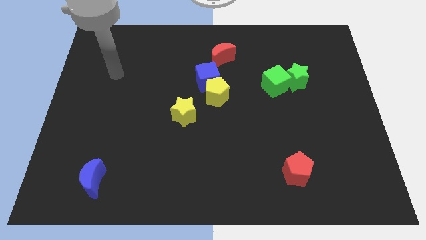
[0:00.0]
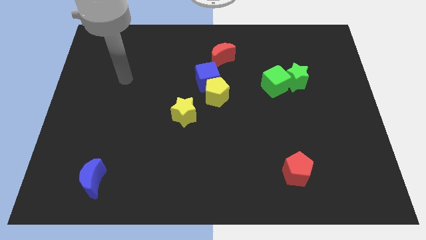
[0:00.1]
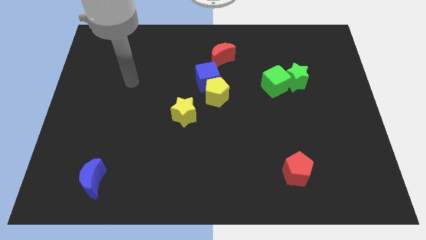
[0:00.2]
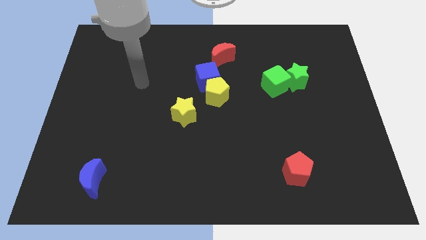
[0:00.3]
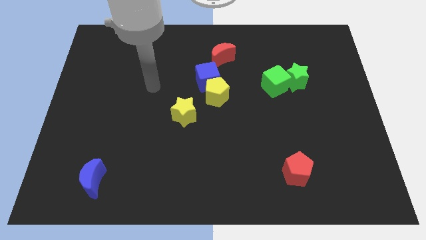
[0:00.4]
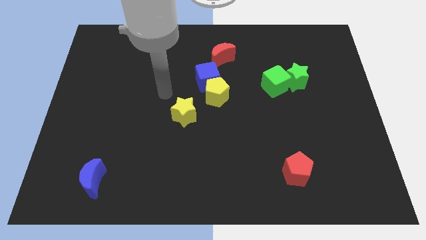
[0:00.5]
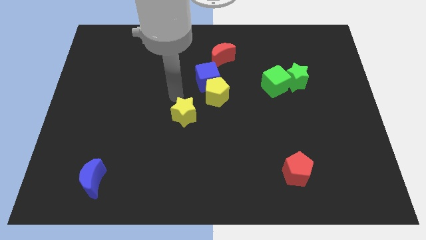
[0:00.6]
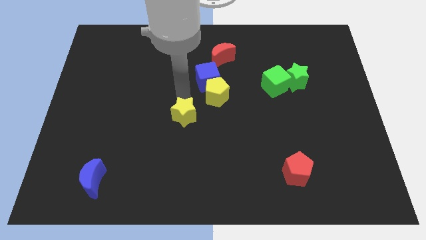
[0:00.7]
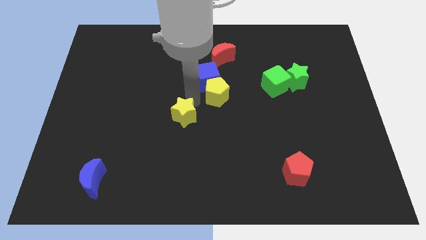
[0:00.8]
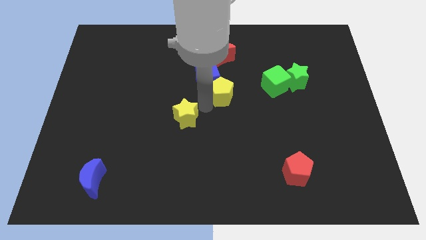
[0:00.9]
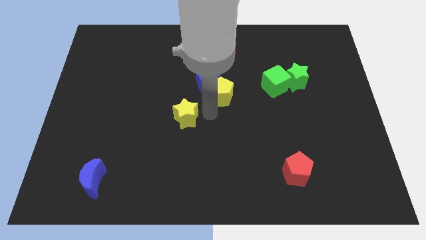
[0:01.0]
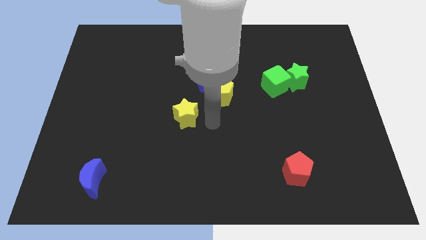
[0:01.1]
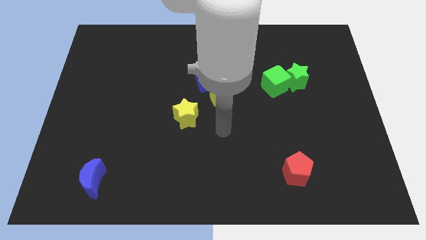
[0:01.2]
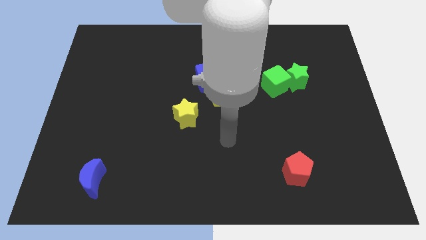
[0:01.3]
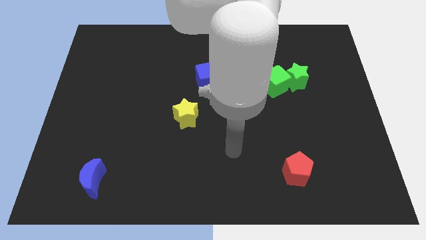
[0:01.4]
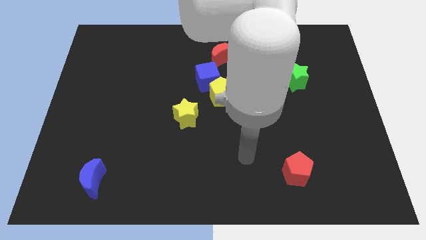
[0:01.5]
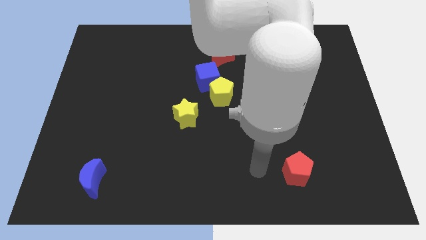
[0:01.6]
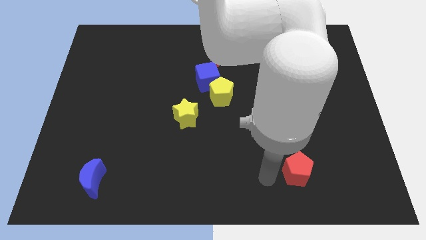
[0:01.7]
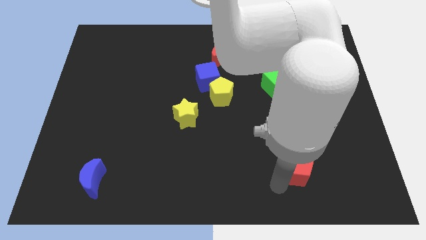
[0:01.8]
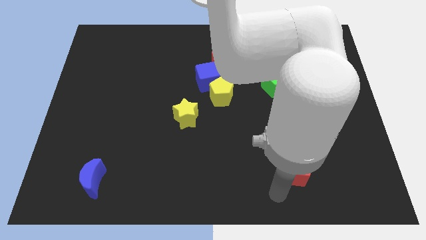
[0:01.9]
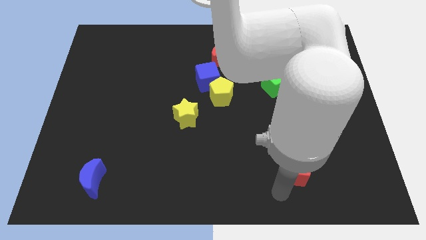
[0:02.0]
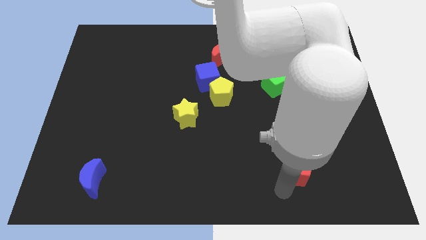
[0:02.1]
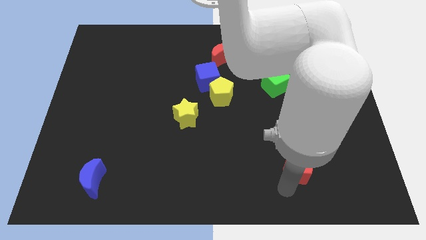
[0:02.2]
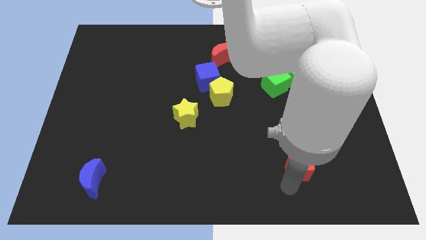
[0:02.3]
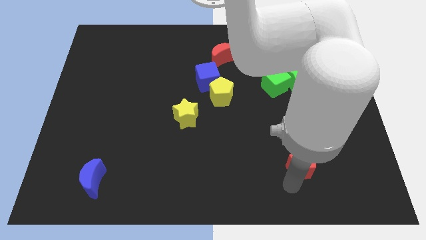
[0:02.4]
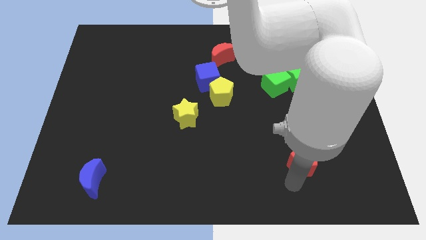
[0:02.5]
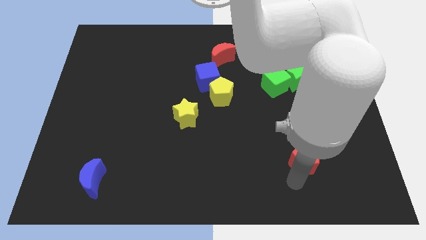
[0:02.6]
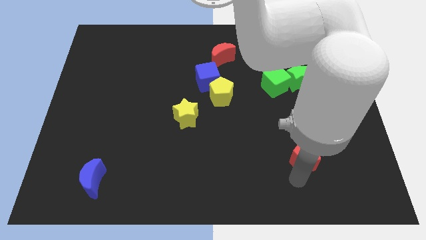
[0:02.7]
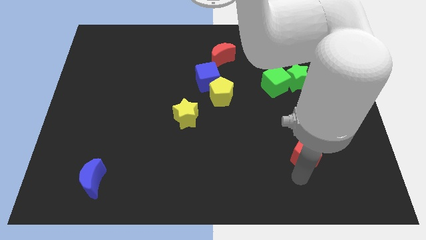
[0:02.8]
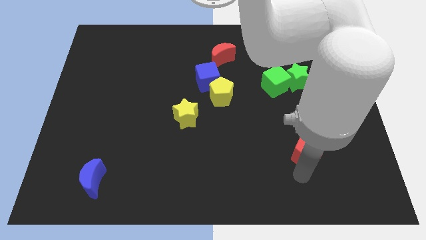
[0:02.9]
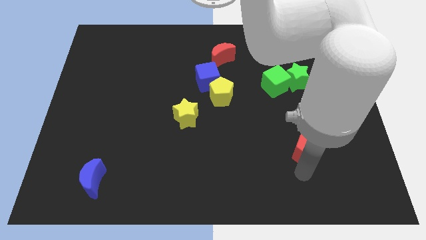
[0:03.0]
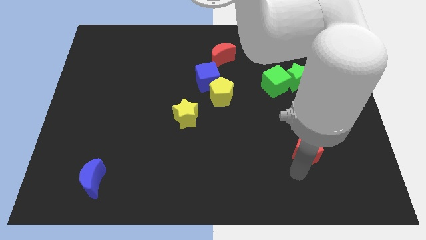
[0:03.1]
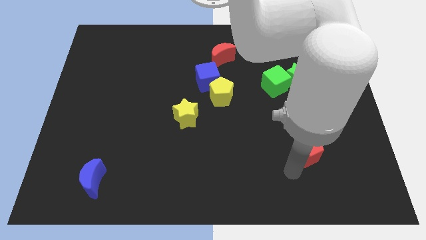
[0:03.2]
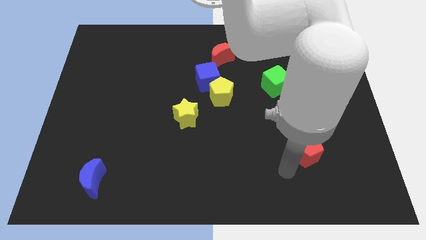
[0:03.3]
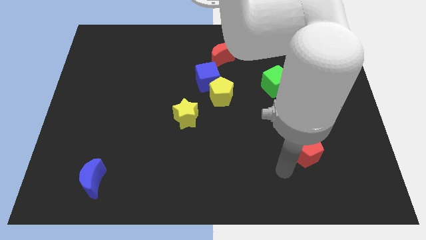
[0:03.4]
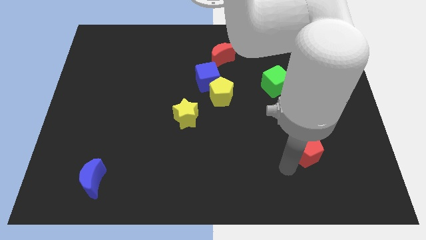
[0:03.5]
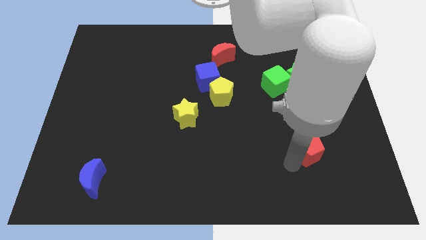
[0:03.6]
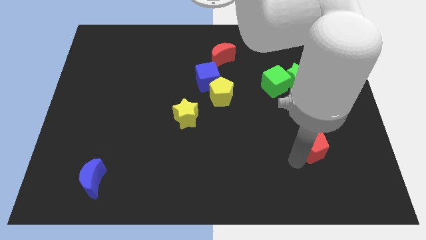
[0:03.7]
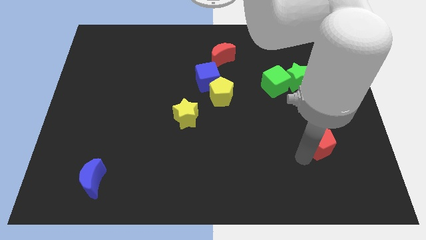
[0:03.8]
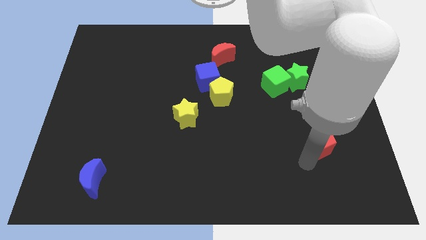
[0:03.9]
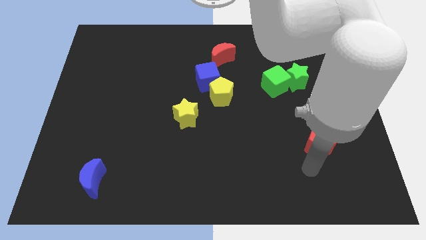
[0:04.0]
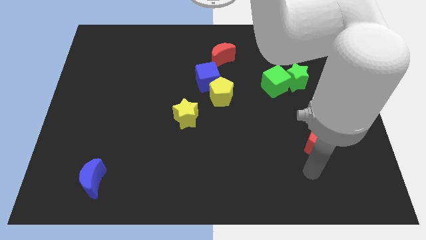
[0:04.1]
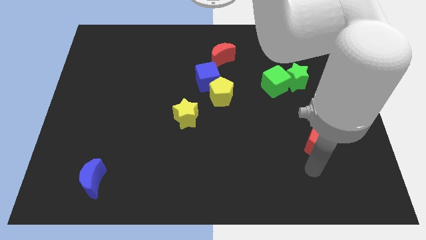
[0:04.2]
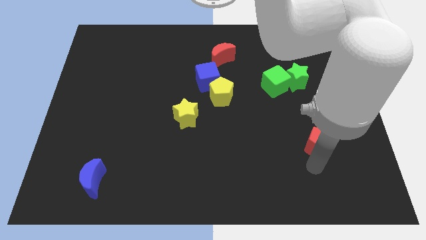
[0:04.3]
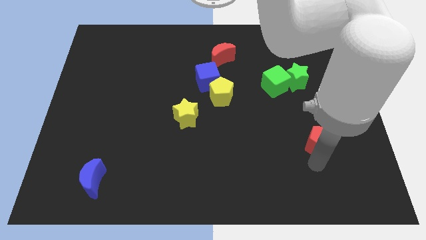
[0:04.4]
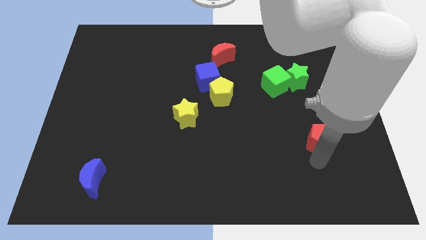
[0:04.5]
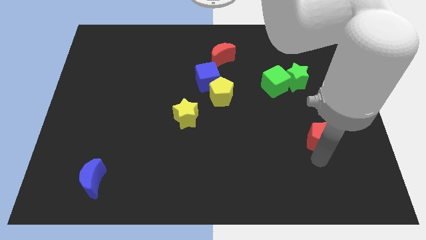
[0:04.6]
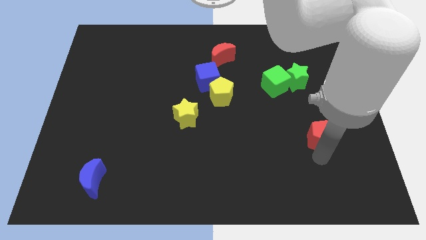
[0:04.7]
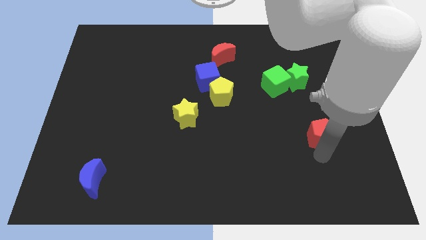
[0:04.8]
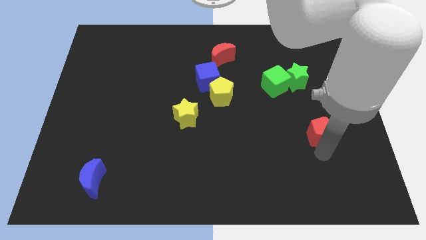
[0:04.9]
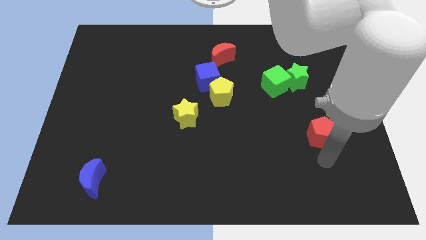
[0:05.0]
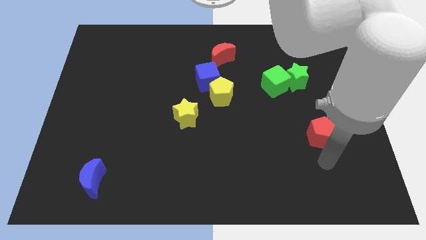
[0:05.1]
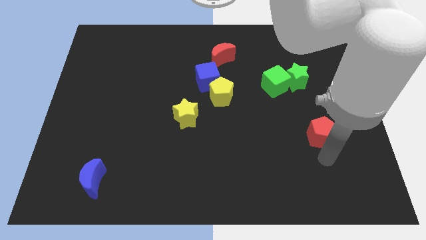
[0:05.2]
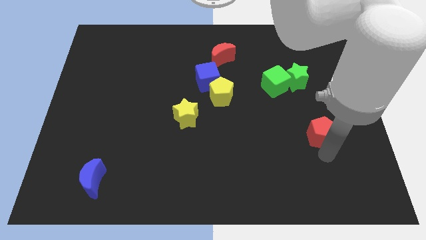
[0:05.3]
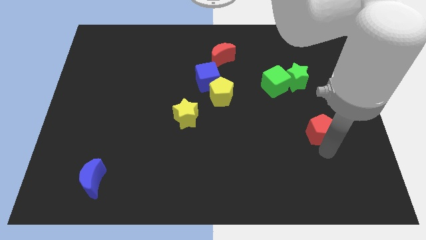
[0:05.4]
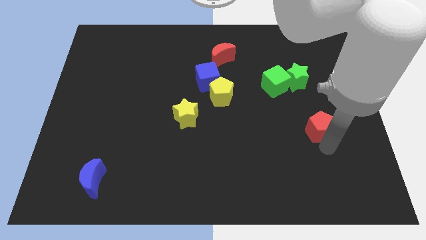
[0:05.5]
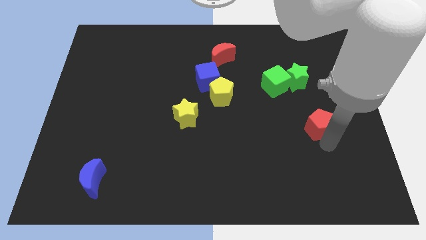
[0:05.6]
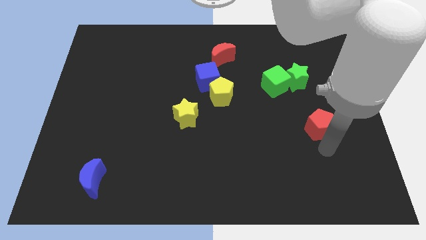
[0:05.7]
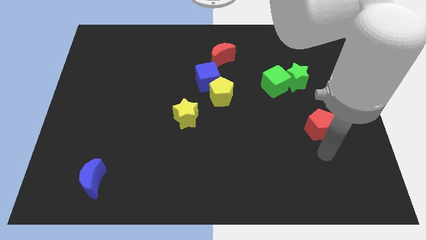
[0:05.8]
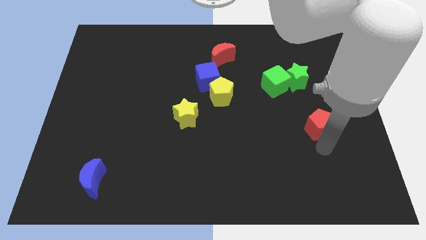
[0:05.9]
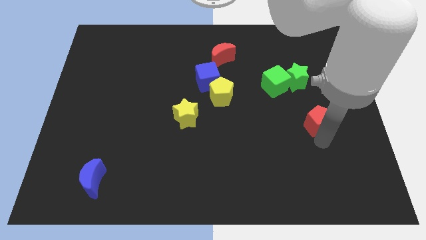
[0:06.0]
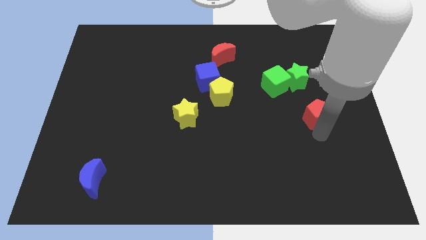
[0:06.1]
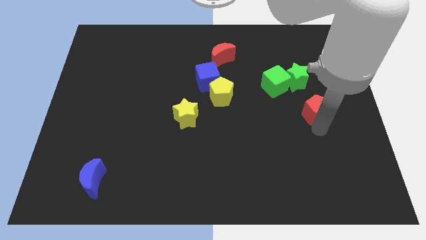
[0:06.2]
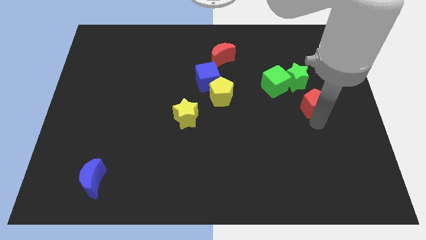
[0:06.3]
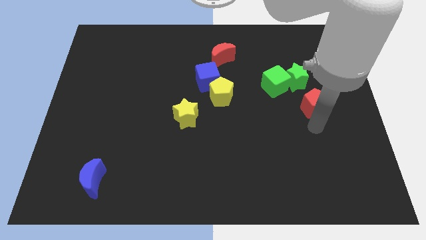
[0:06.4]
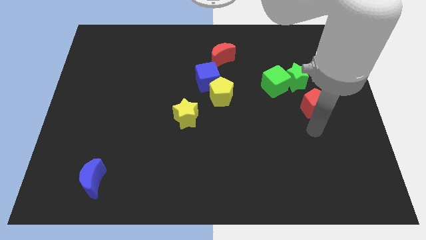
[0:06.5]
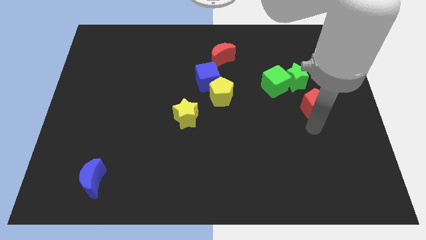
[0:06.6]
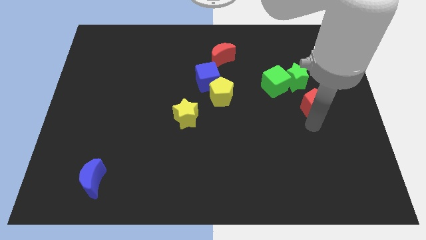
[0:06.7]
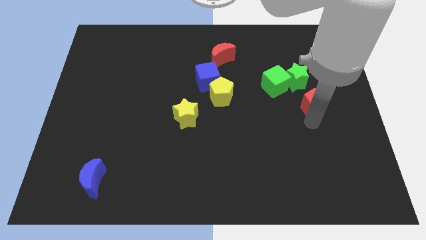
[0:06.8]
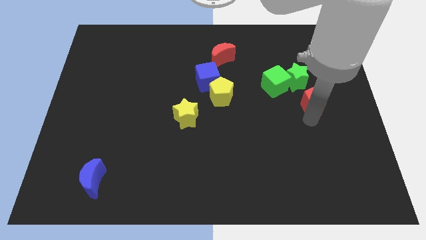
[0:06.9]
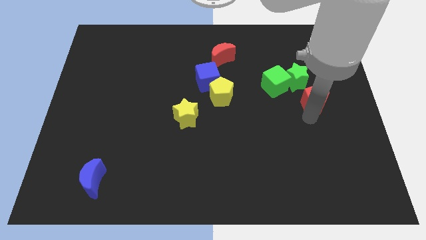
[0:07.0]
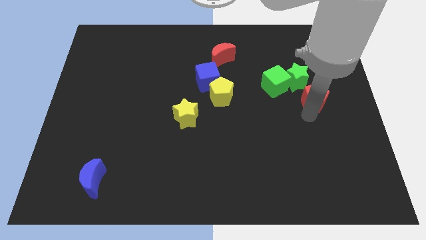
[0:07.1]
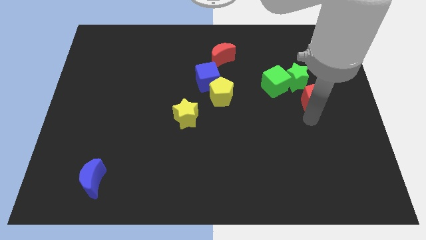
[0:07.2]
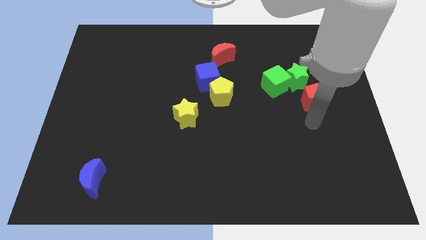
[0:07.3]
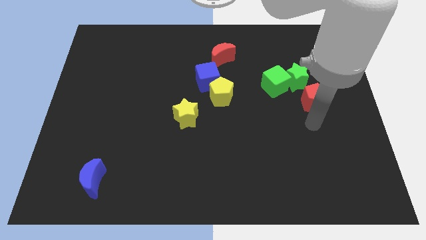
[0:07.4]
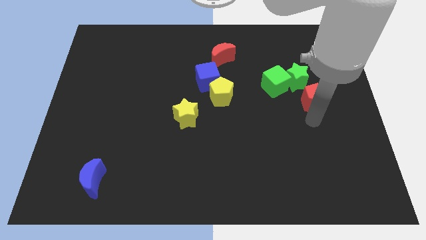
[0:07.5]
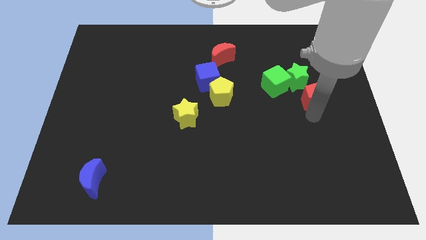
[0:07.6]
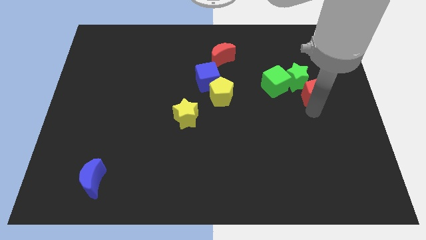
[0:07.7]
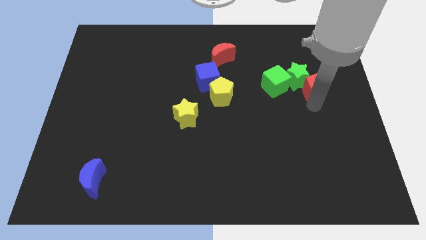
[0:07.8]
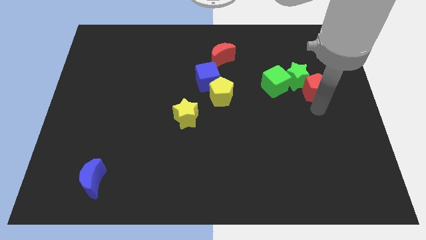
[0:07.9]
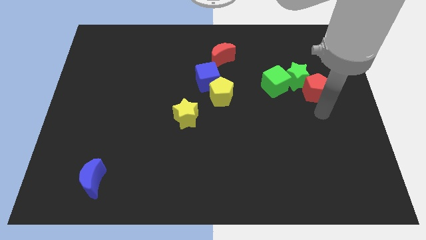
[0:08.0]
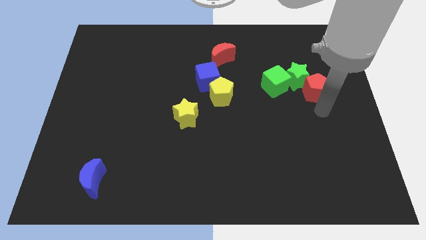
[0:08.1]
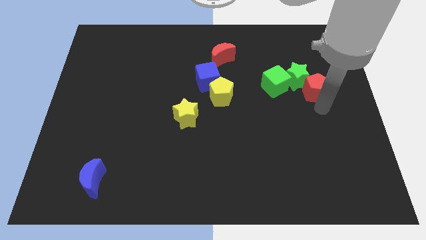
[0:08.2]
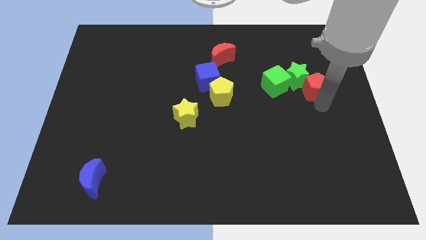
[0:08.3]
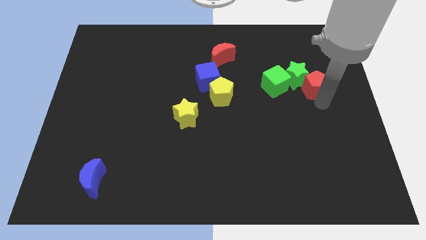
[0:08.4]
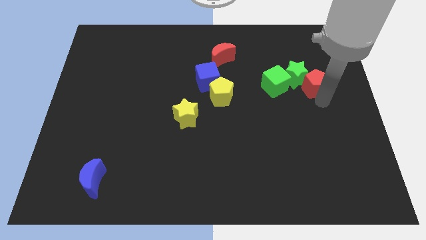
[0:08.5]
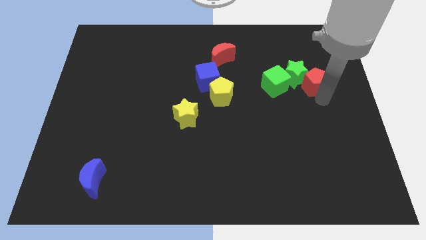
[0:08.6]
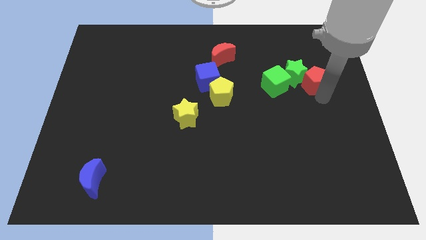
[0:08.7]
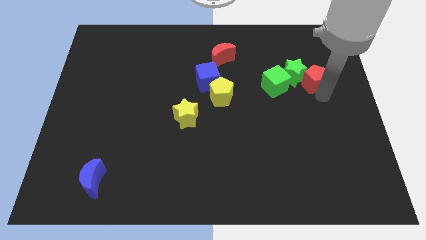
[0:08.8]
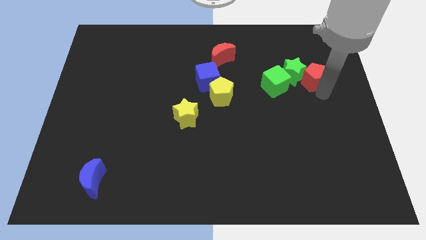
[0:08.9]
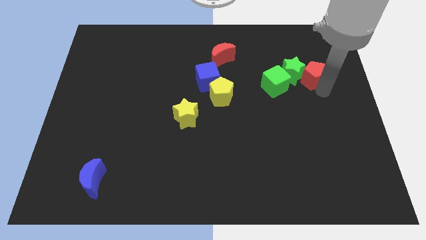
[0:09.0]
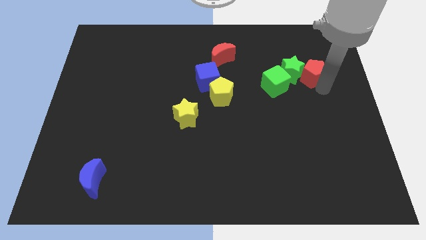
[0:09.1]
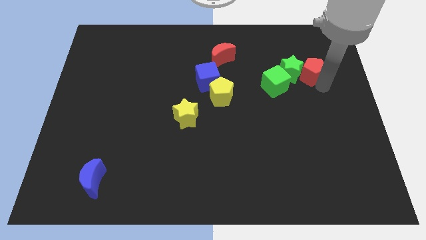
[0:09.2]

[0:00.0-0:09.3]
move the red pentagon to the top right side of the green cube
